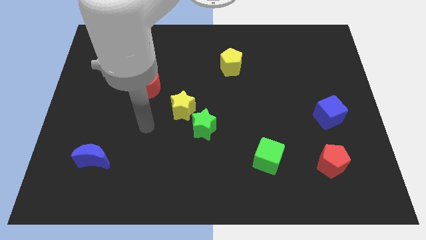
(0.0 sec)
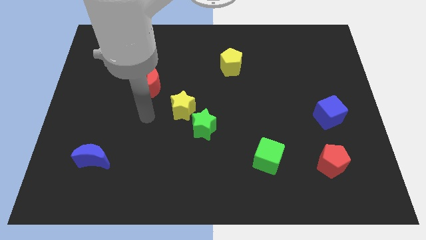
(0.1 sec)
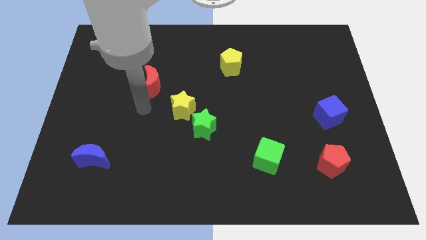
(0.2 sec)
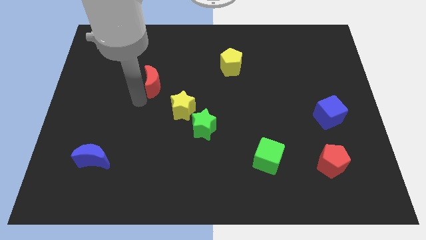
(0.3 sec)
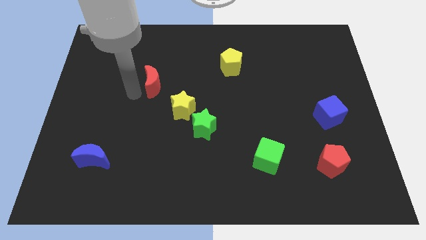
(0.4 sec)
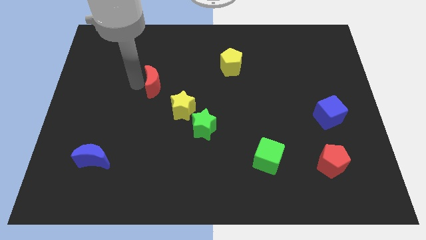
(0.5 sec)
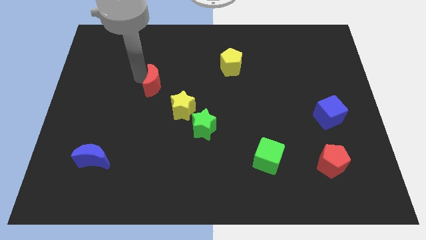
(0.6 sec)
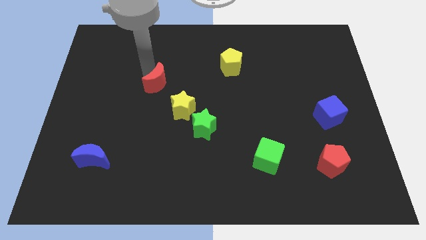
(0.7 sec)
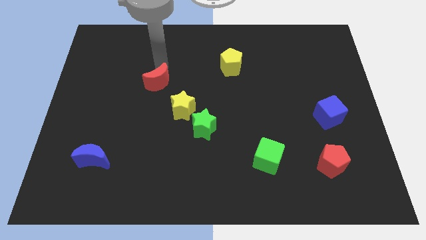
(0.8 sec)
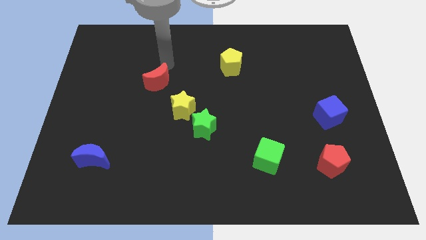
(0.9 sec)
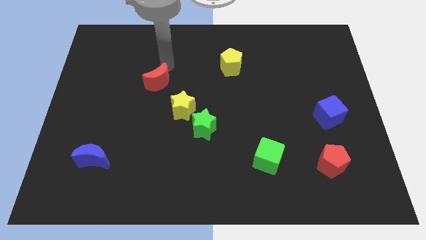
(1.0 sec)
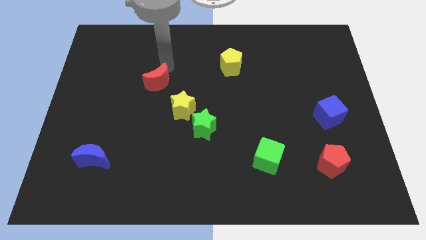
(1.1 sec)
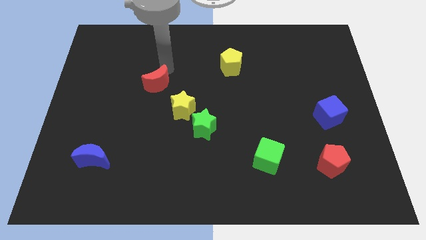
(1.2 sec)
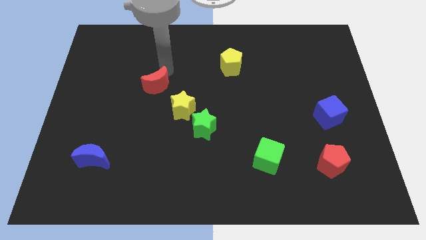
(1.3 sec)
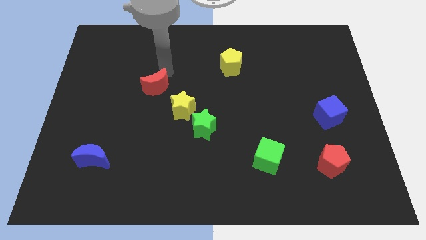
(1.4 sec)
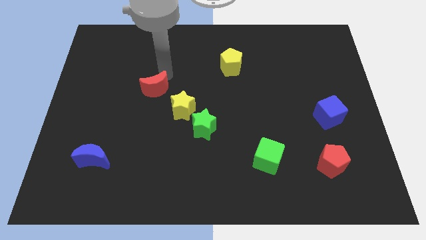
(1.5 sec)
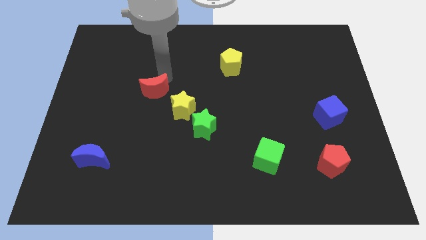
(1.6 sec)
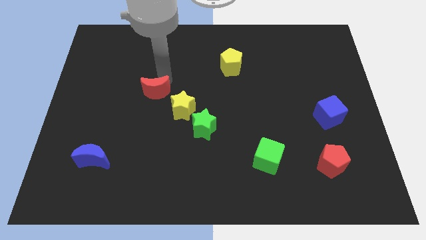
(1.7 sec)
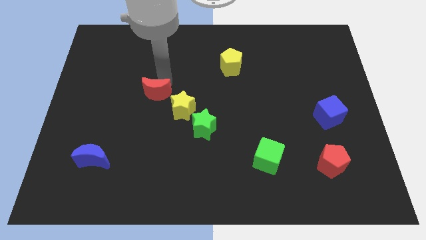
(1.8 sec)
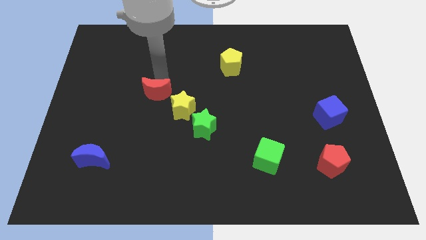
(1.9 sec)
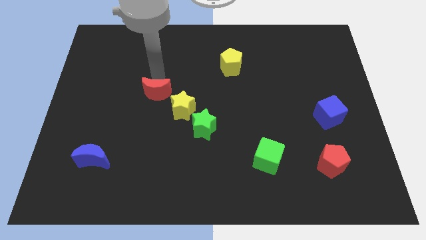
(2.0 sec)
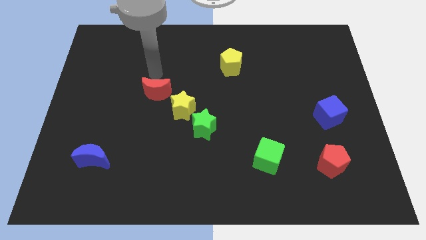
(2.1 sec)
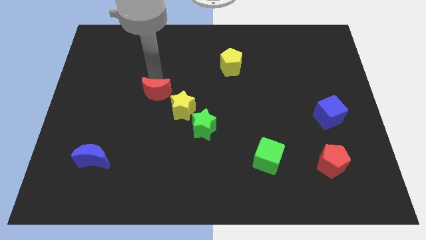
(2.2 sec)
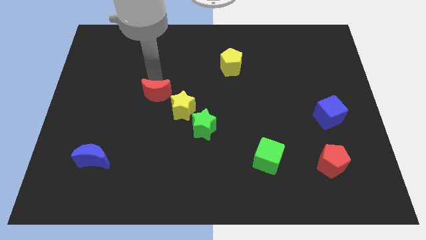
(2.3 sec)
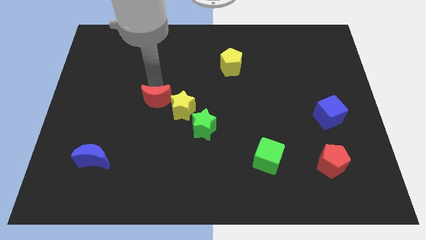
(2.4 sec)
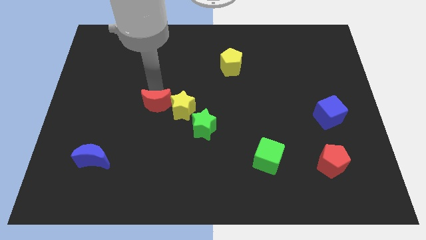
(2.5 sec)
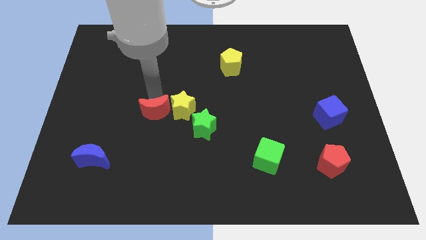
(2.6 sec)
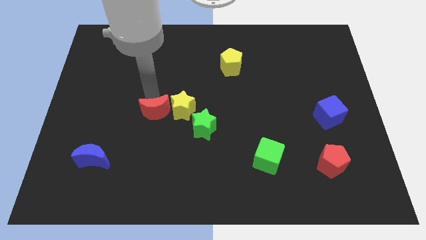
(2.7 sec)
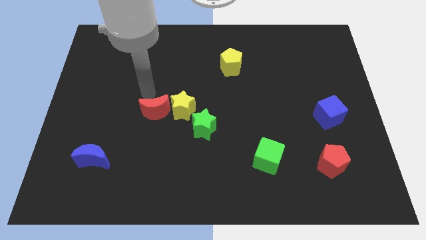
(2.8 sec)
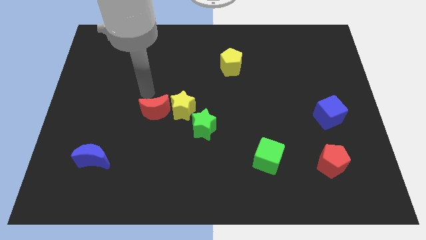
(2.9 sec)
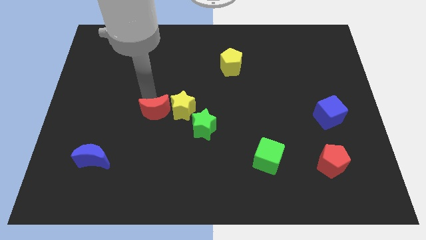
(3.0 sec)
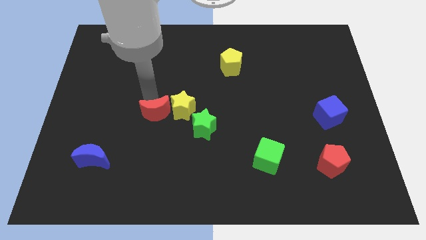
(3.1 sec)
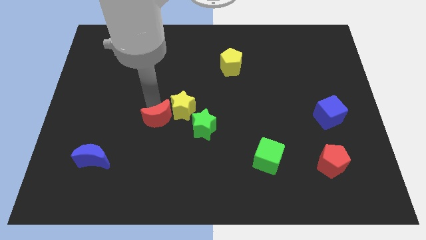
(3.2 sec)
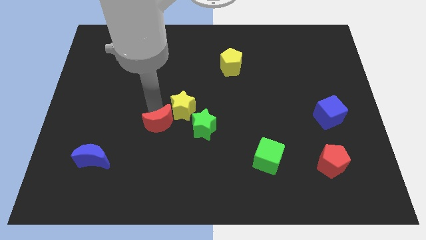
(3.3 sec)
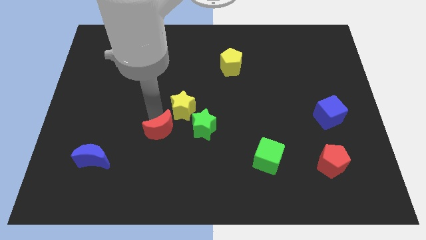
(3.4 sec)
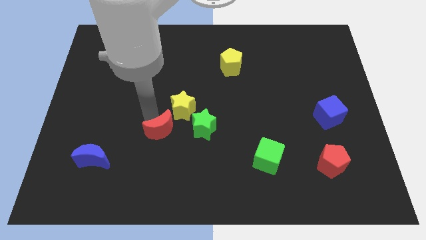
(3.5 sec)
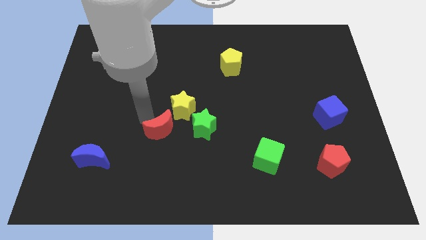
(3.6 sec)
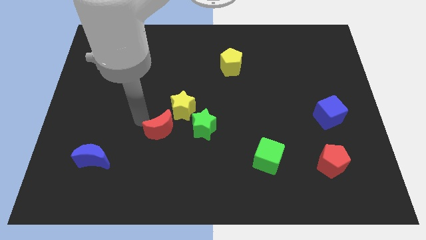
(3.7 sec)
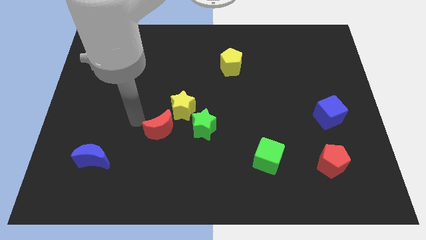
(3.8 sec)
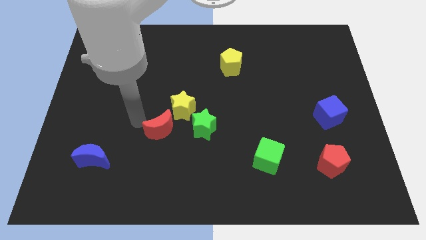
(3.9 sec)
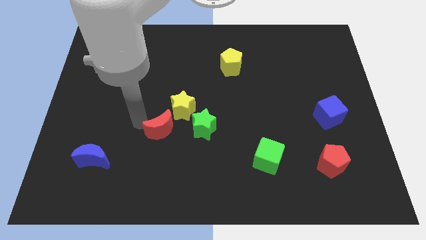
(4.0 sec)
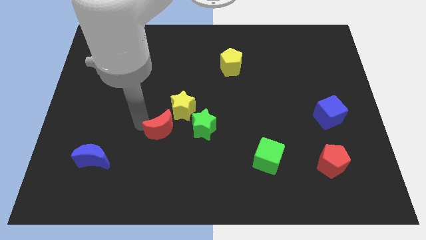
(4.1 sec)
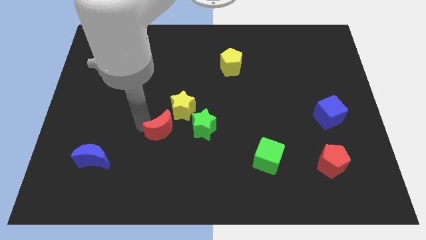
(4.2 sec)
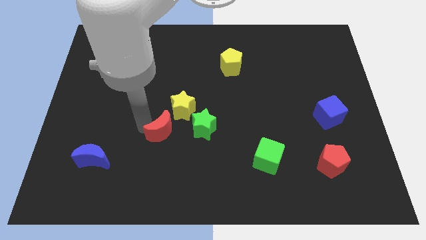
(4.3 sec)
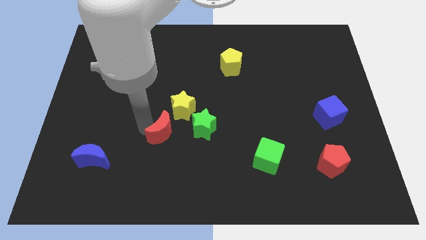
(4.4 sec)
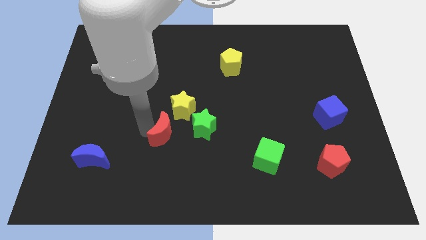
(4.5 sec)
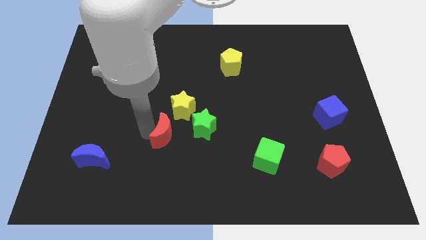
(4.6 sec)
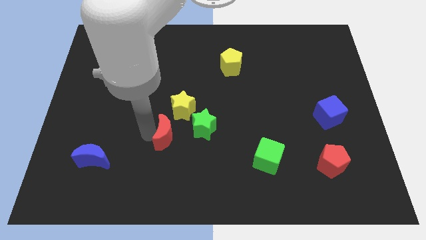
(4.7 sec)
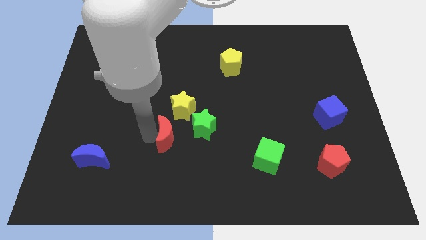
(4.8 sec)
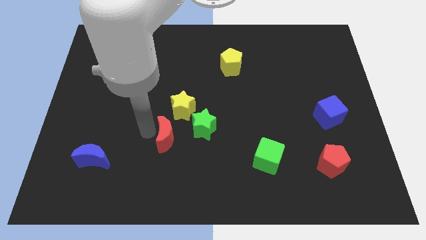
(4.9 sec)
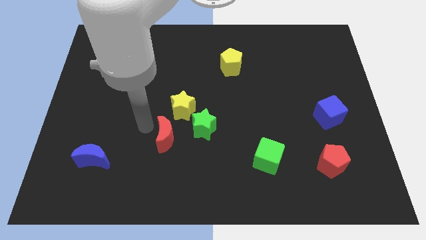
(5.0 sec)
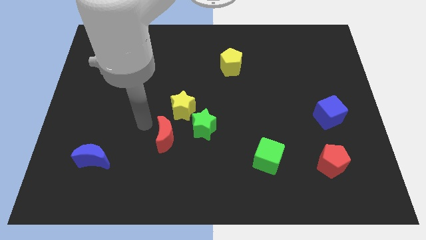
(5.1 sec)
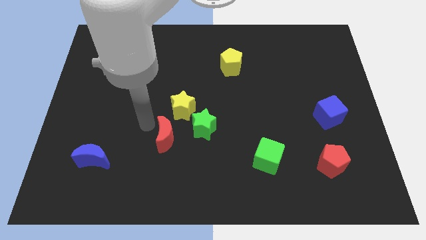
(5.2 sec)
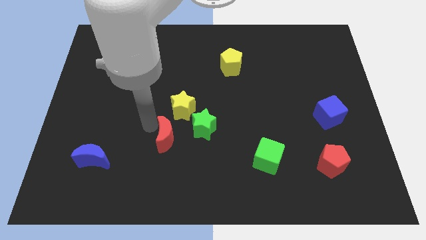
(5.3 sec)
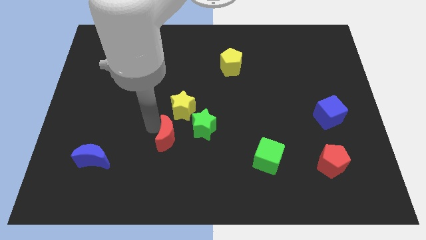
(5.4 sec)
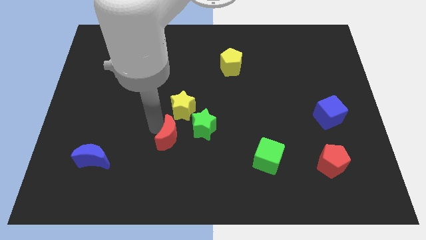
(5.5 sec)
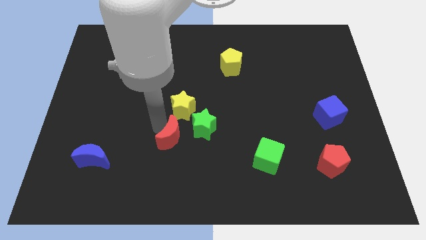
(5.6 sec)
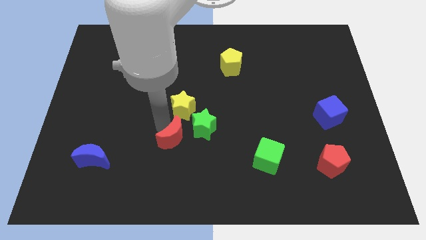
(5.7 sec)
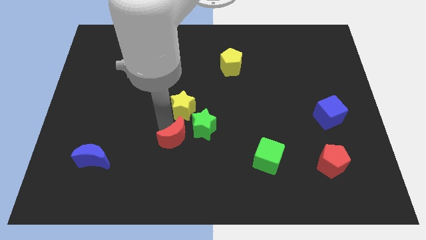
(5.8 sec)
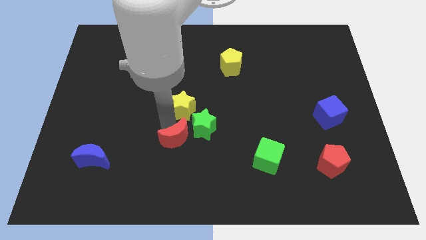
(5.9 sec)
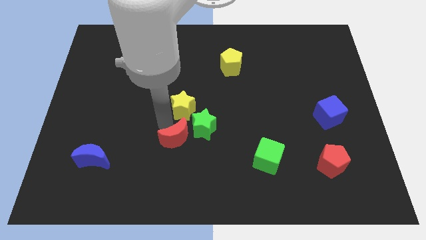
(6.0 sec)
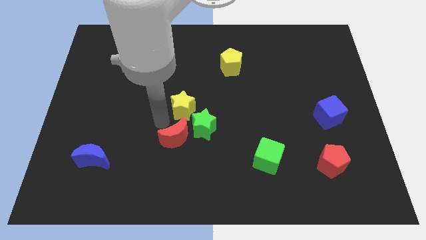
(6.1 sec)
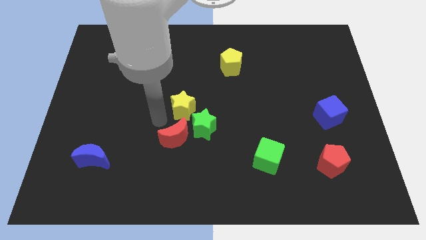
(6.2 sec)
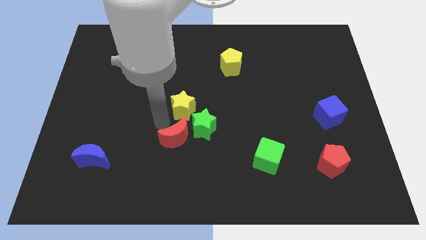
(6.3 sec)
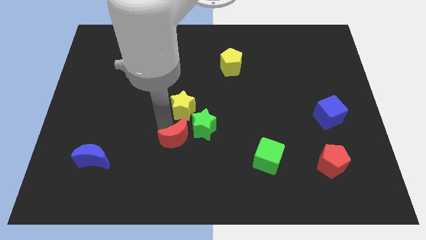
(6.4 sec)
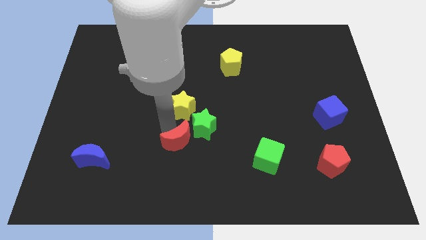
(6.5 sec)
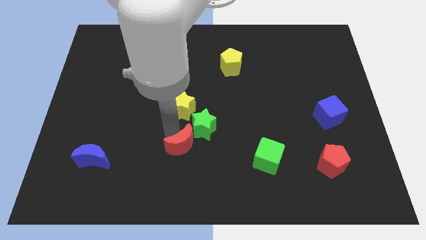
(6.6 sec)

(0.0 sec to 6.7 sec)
push the red moon to the bottom of the green star

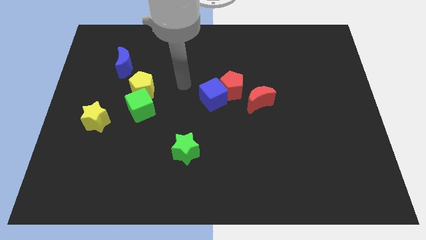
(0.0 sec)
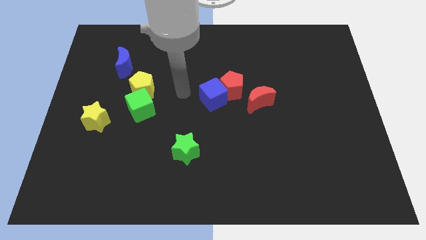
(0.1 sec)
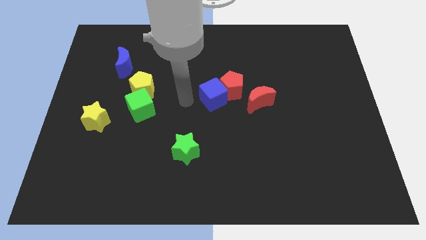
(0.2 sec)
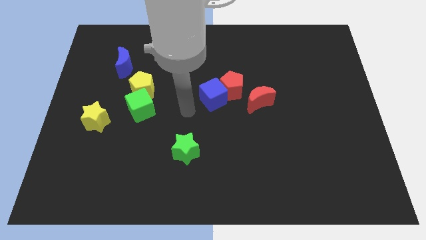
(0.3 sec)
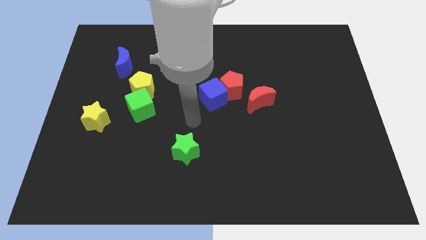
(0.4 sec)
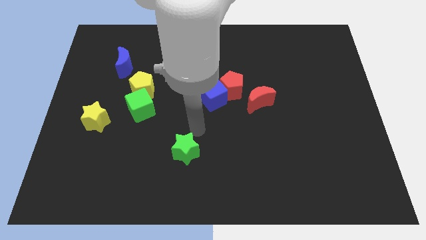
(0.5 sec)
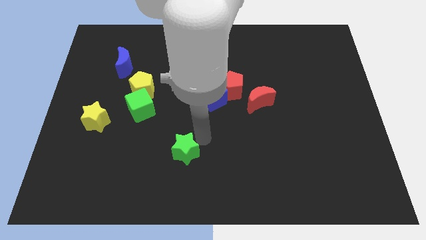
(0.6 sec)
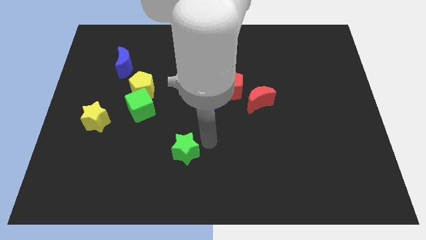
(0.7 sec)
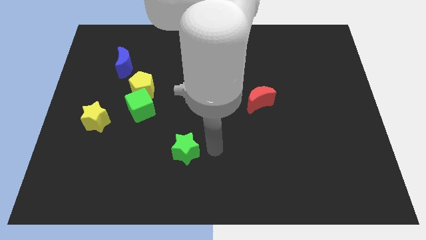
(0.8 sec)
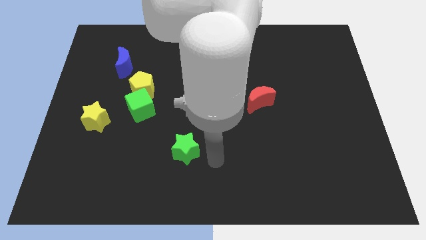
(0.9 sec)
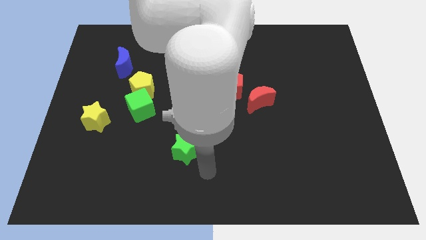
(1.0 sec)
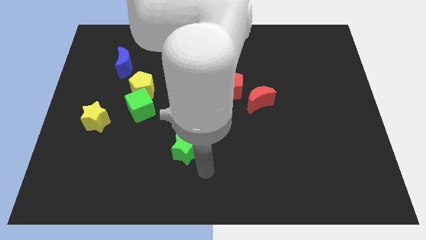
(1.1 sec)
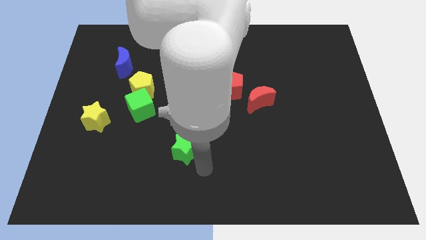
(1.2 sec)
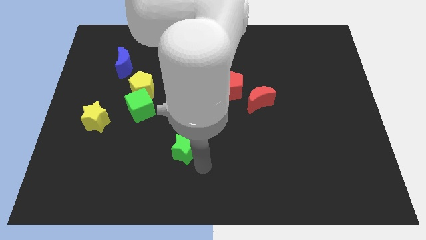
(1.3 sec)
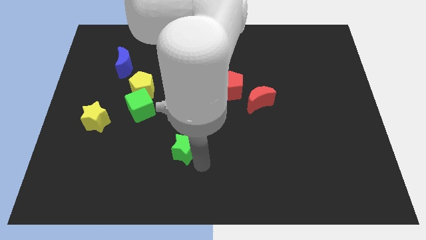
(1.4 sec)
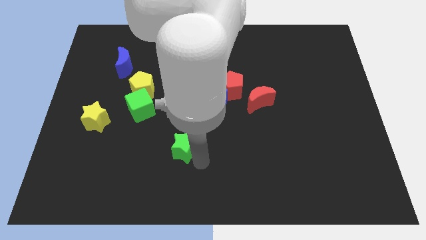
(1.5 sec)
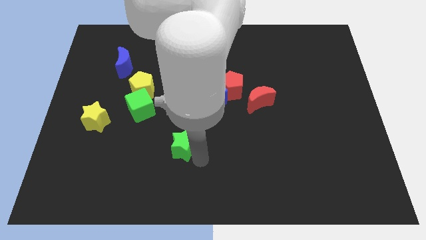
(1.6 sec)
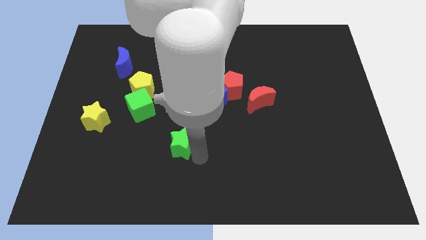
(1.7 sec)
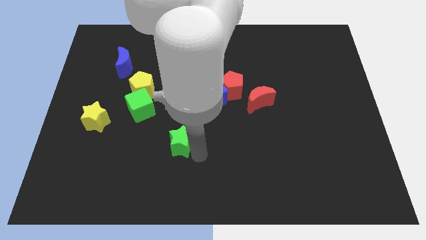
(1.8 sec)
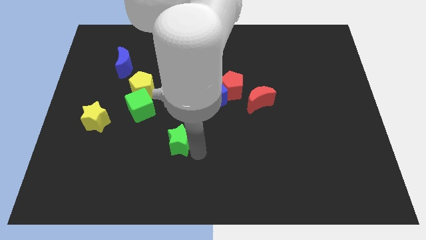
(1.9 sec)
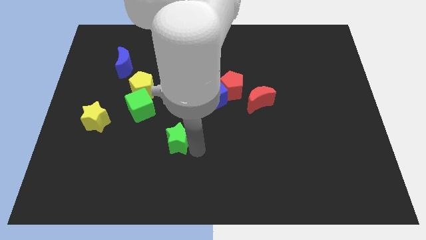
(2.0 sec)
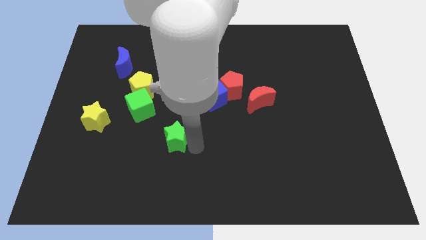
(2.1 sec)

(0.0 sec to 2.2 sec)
slide the green star diagonally down and to the right of the green cube
